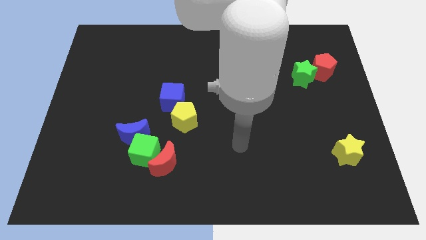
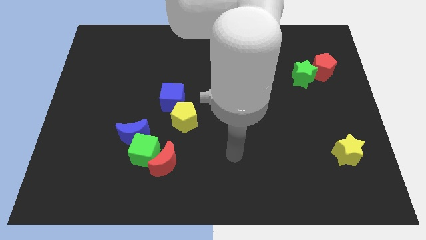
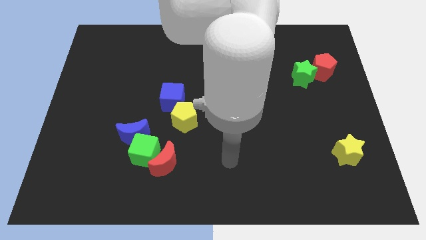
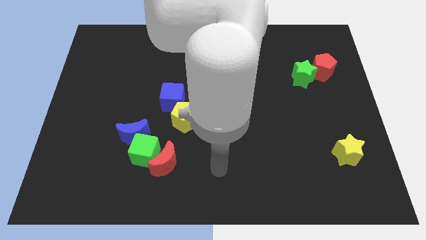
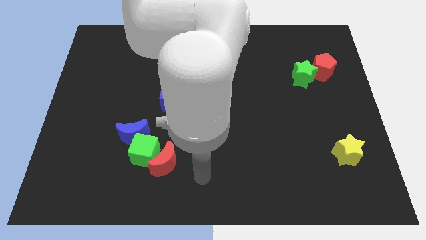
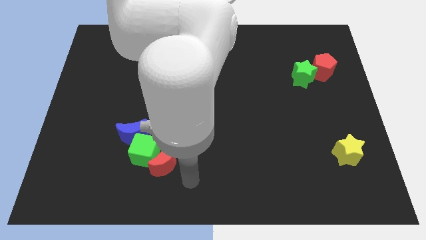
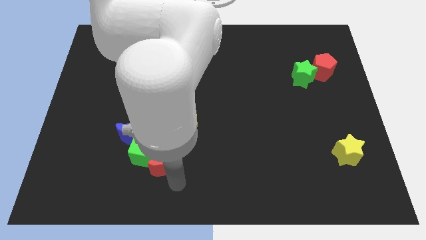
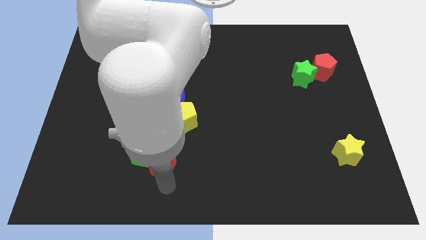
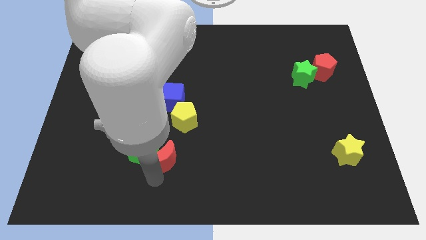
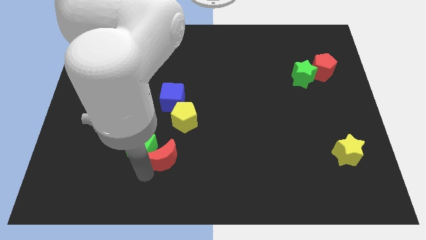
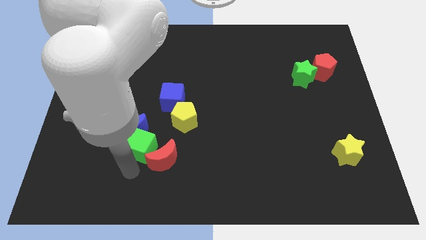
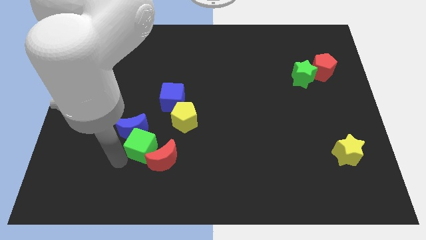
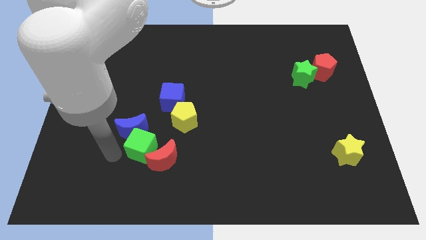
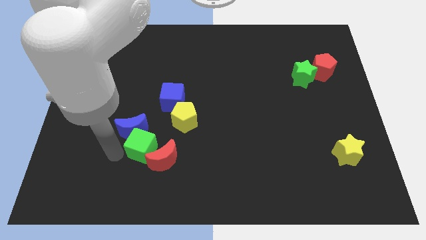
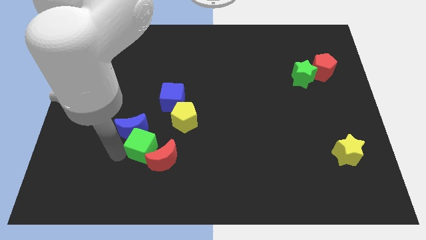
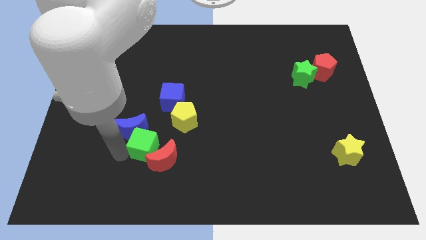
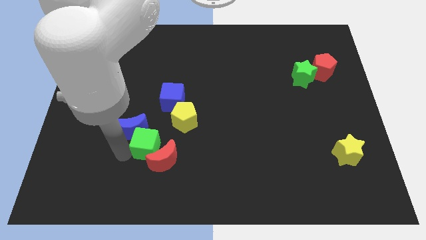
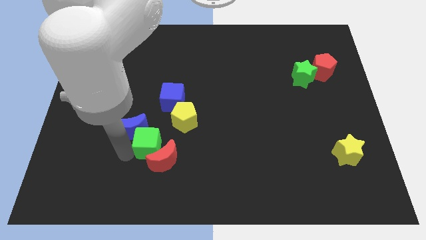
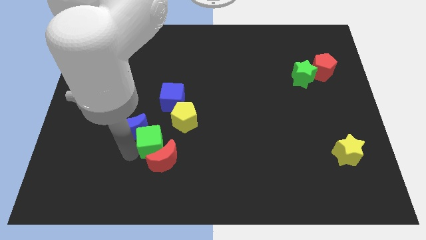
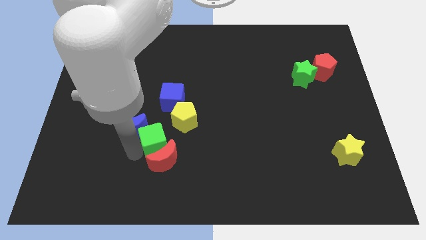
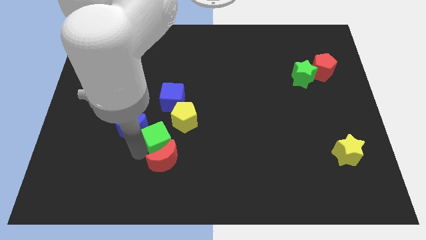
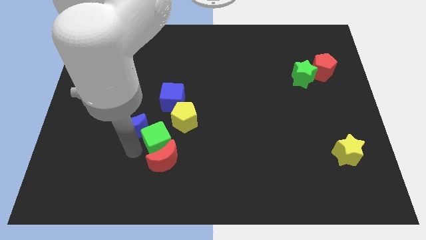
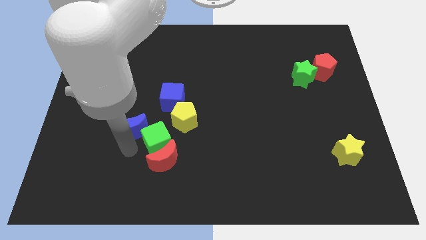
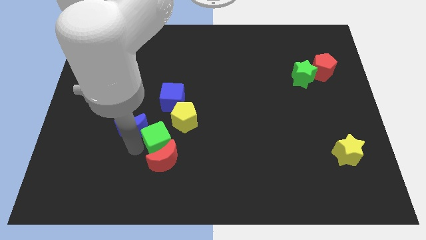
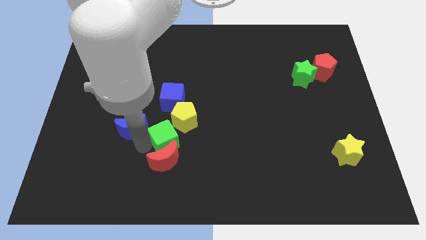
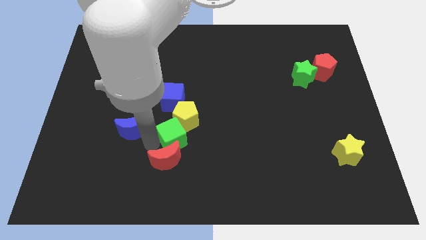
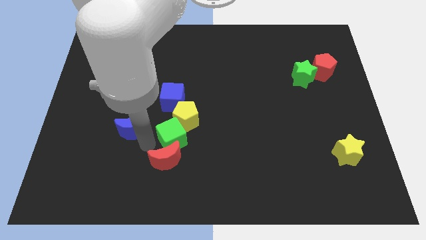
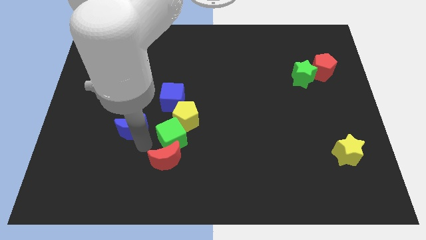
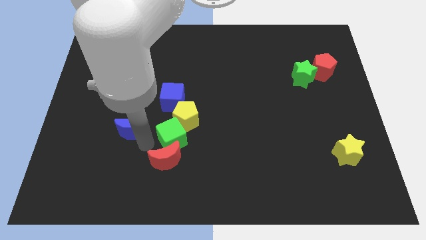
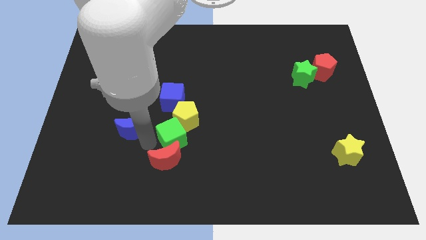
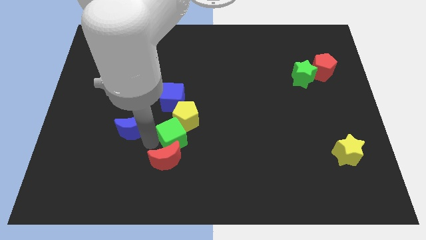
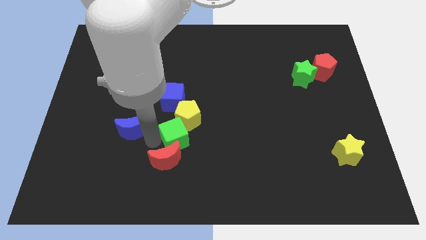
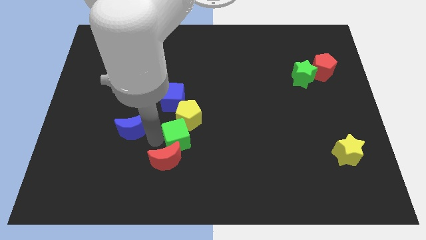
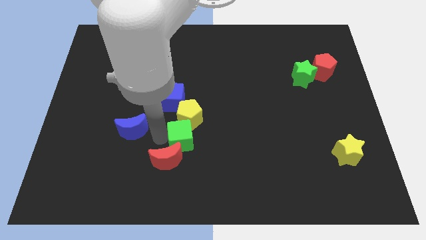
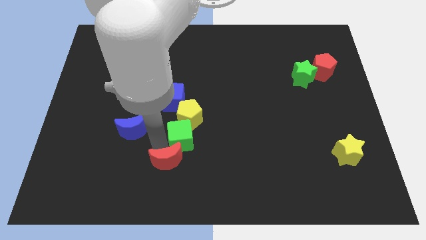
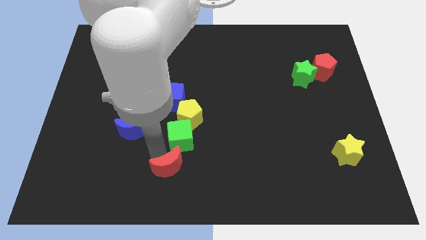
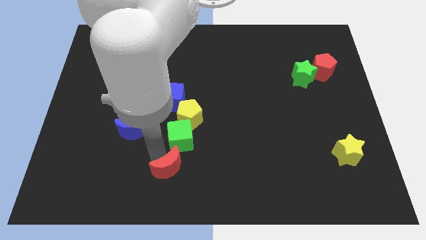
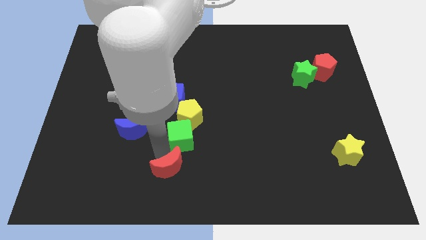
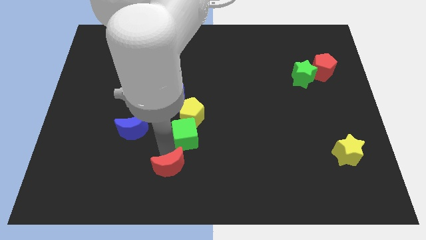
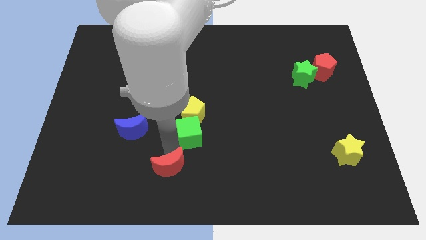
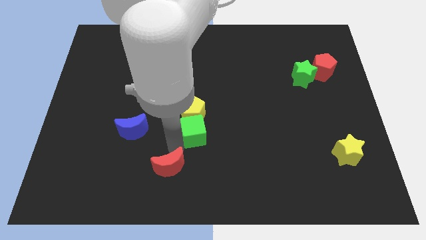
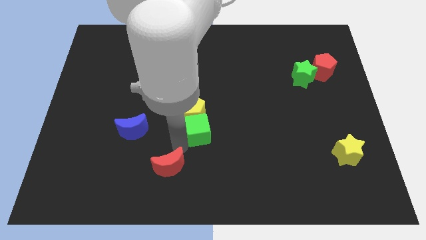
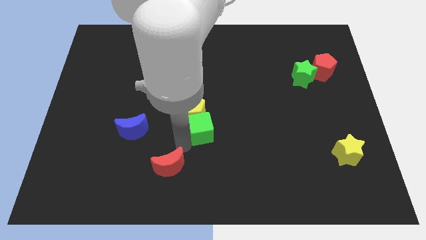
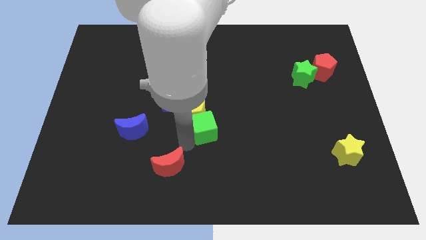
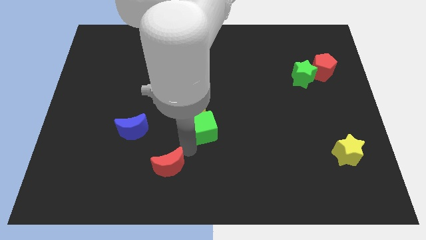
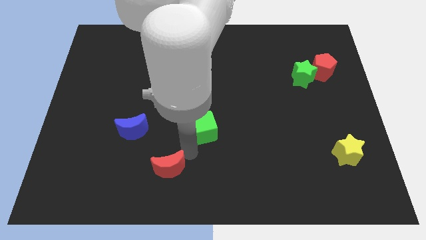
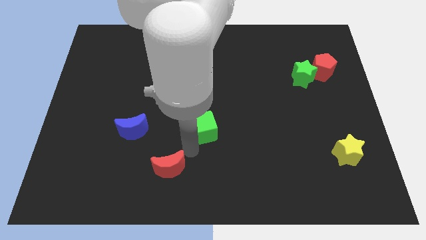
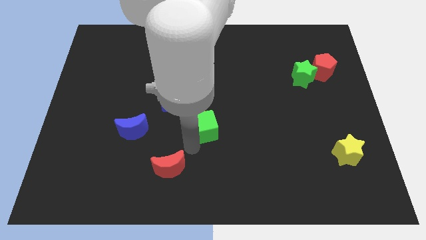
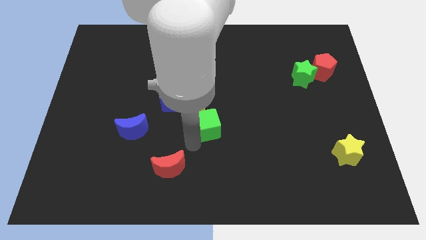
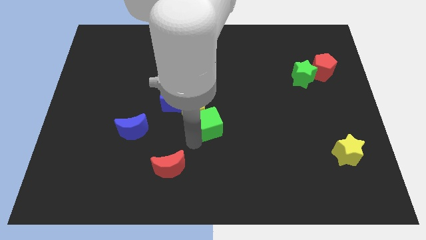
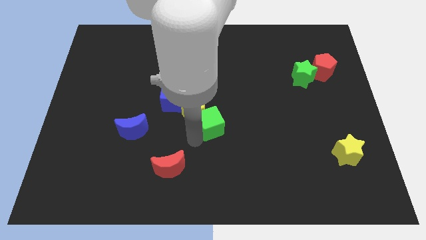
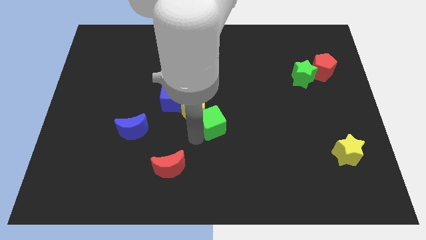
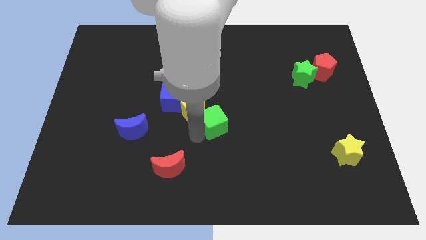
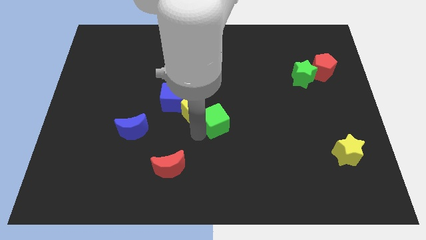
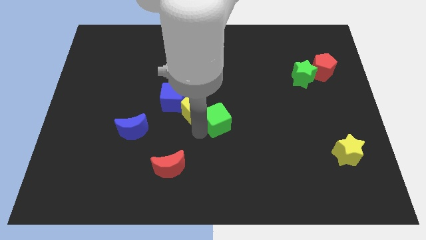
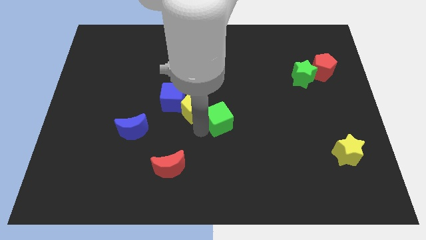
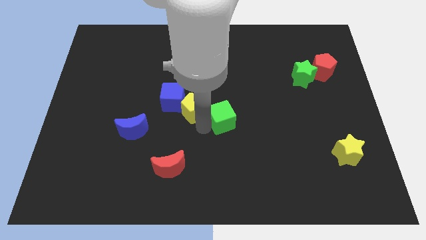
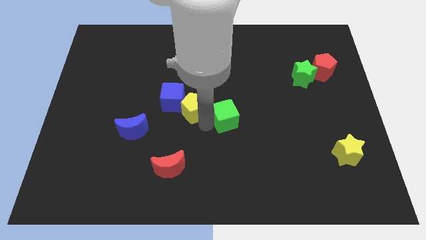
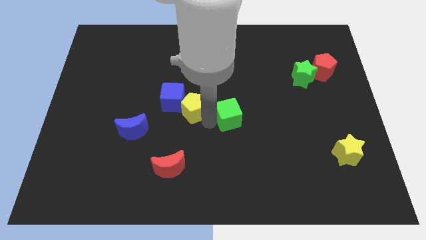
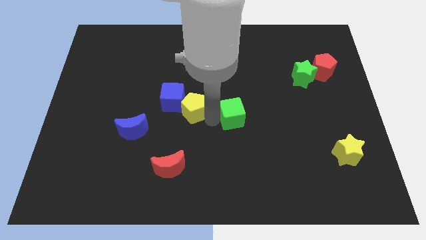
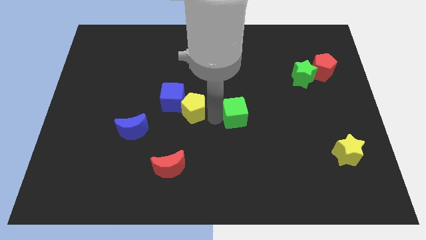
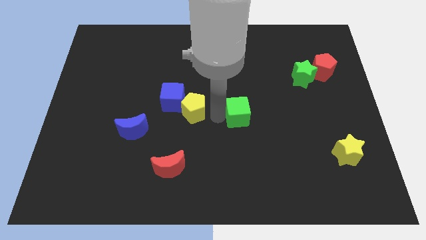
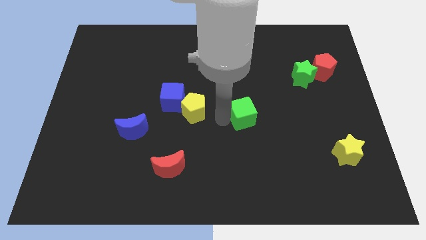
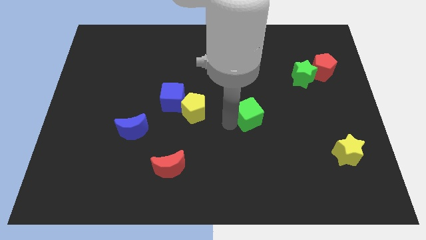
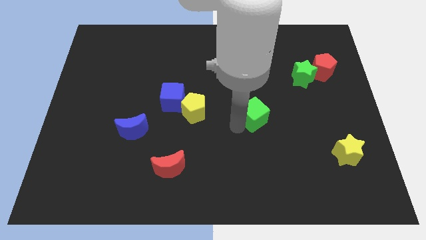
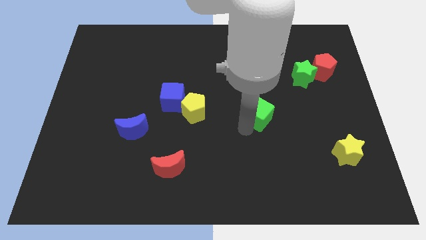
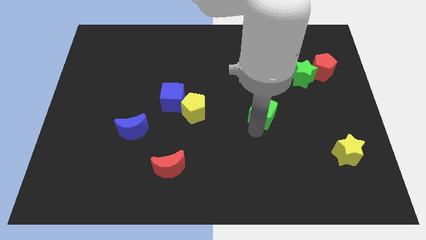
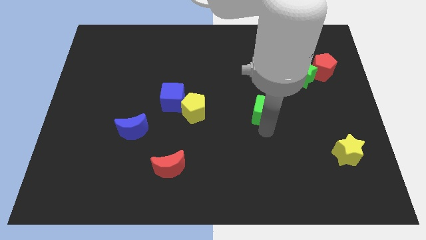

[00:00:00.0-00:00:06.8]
slide the green cube upwards and right diagonally

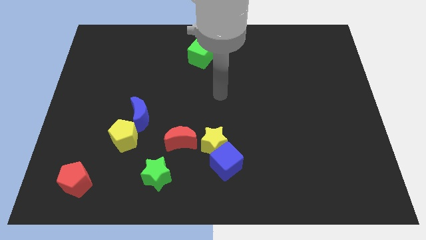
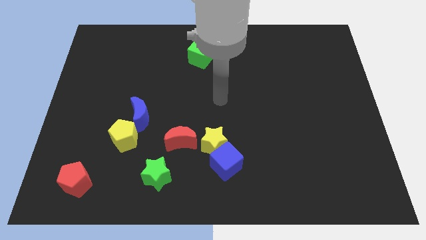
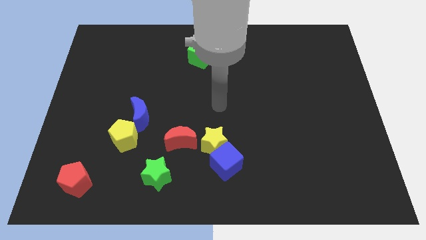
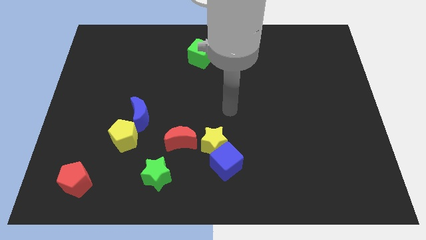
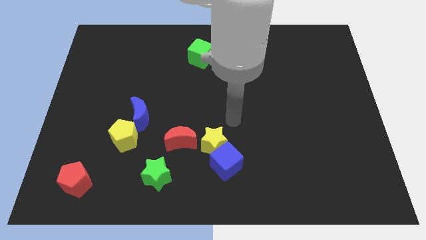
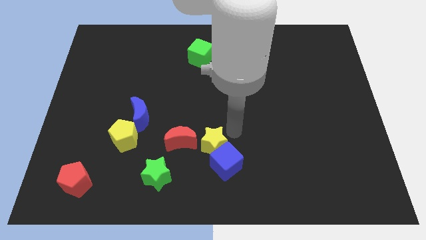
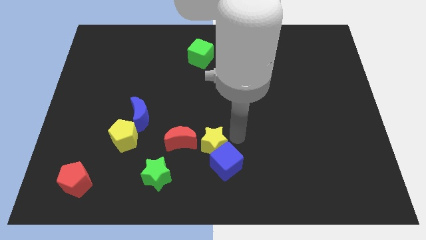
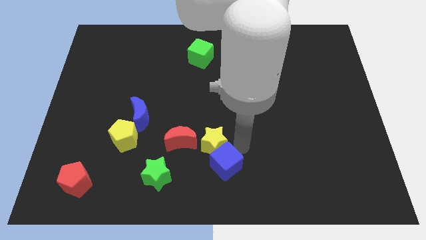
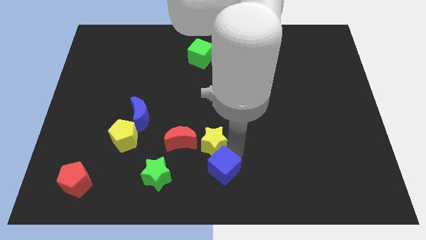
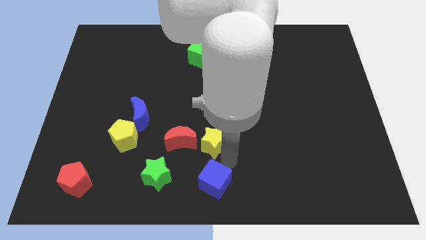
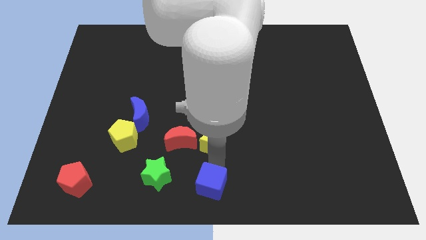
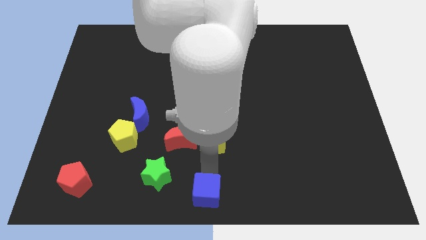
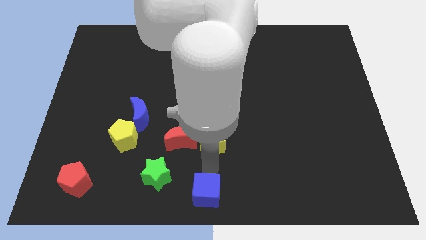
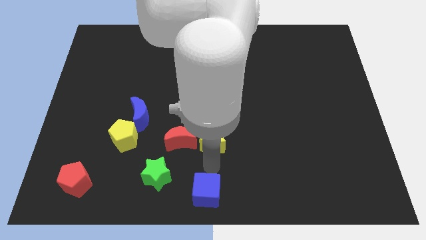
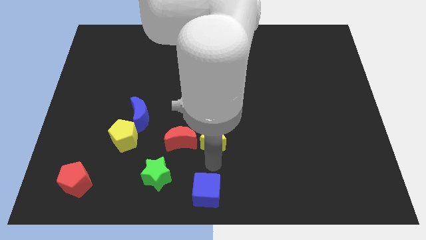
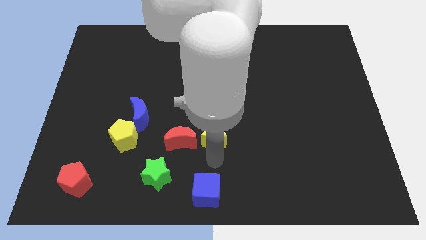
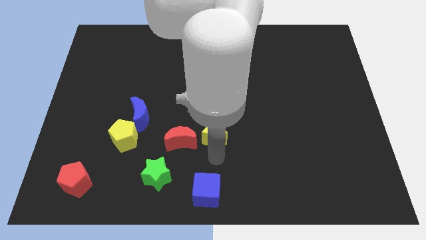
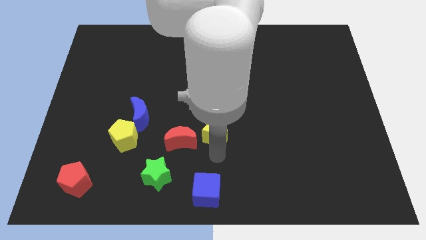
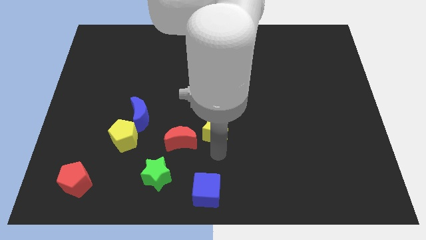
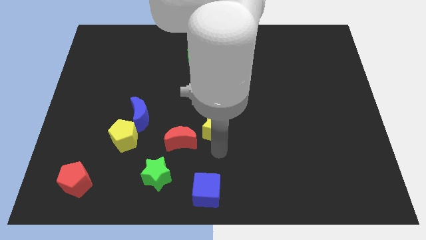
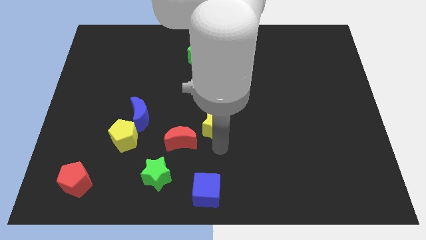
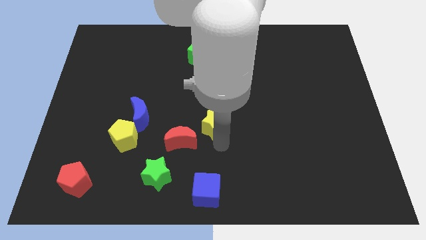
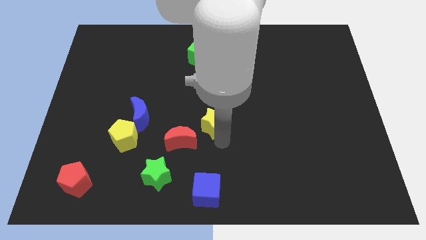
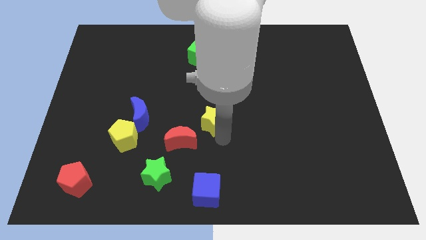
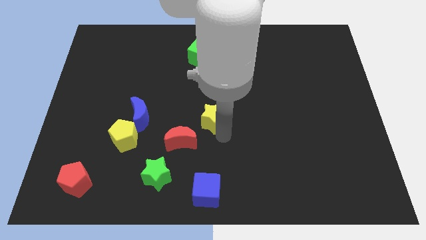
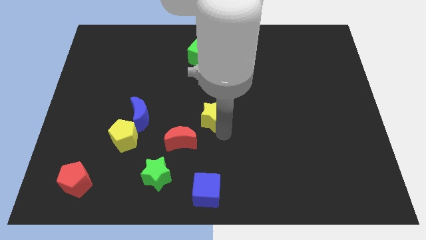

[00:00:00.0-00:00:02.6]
push the yellow star up a bit
